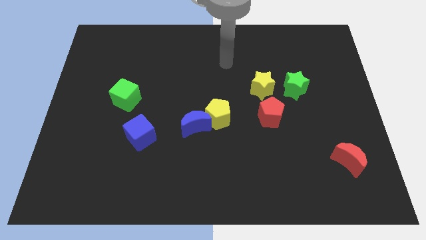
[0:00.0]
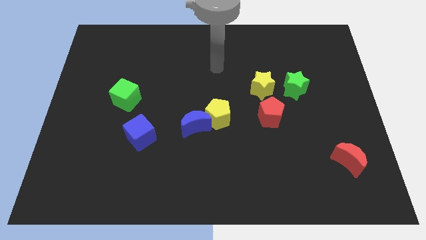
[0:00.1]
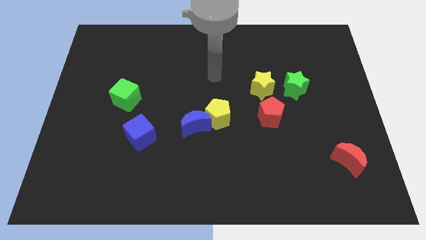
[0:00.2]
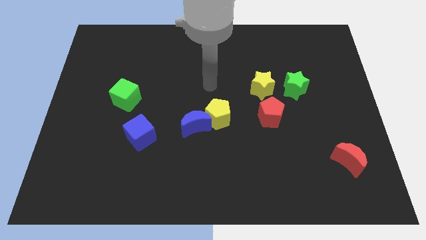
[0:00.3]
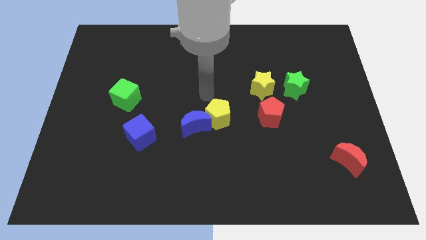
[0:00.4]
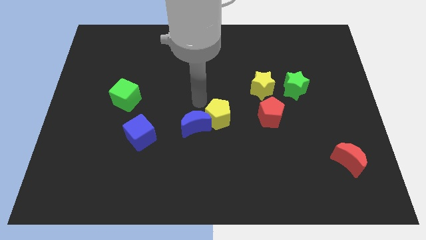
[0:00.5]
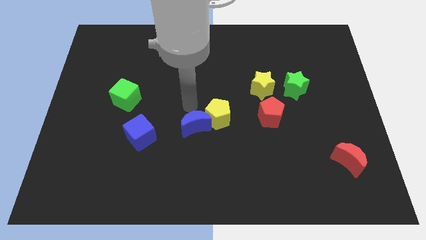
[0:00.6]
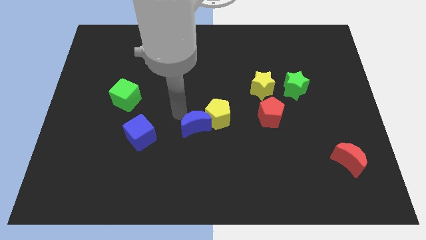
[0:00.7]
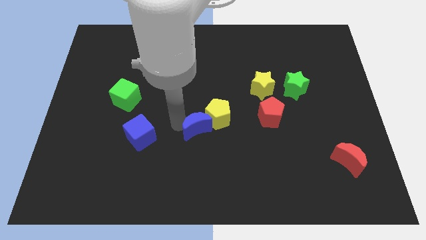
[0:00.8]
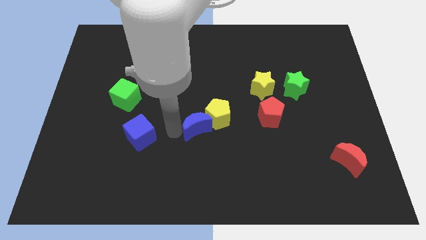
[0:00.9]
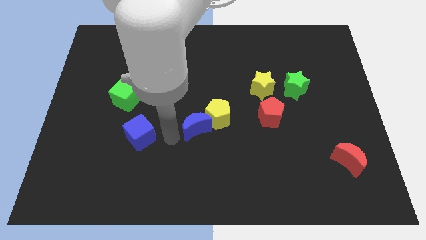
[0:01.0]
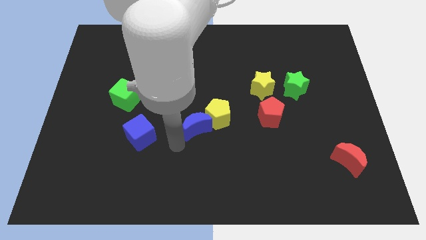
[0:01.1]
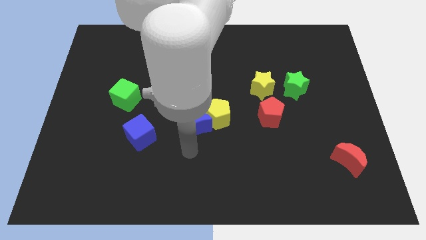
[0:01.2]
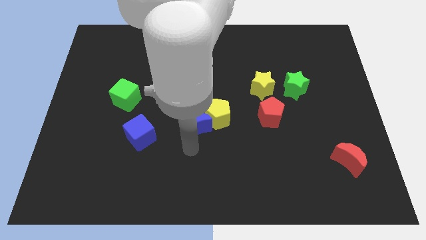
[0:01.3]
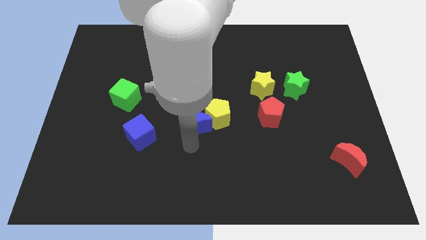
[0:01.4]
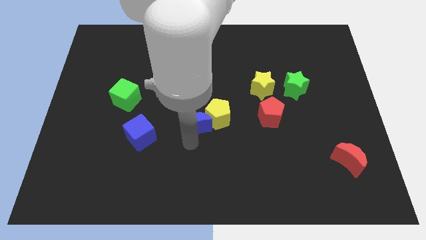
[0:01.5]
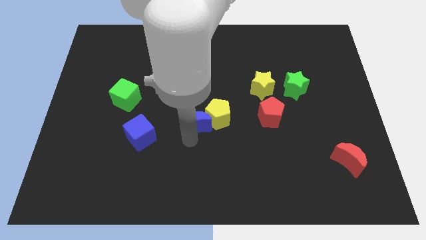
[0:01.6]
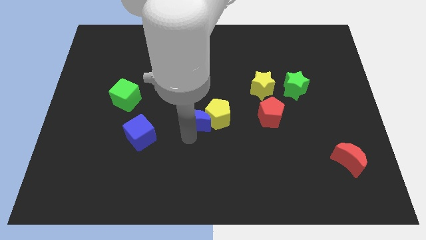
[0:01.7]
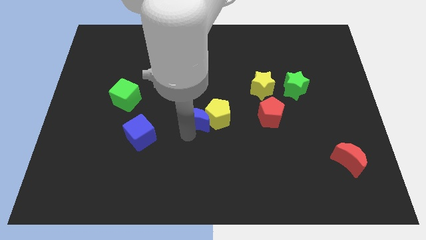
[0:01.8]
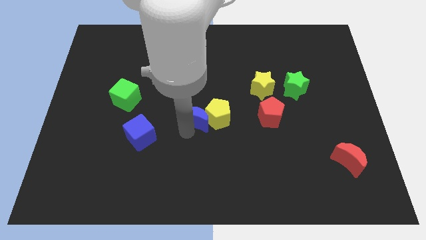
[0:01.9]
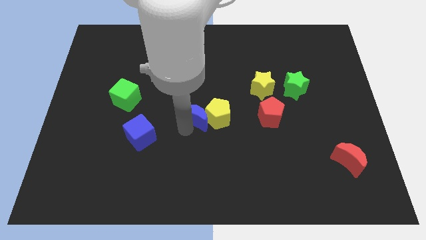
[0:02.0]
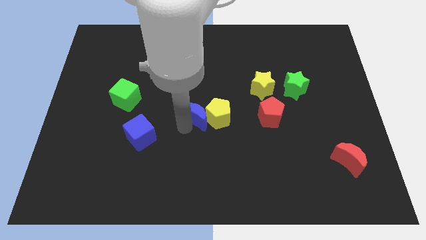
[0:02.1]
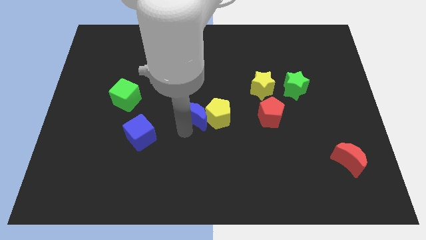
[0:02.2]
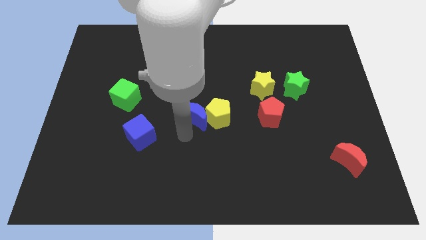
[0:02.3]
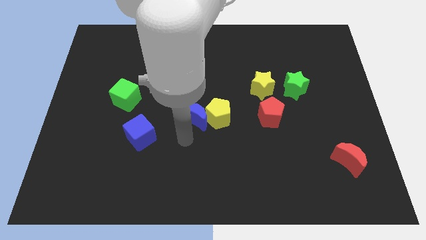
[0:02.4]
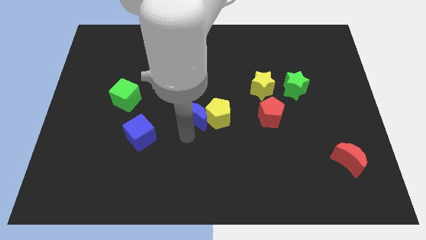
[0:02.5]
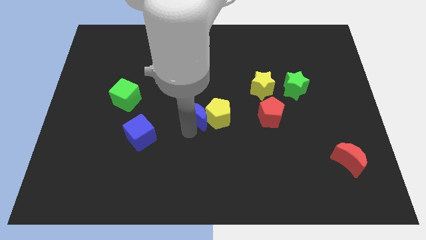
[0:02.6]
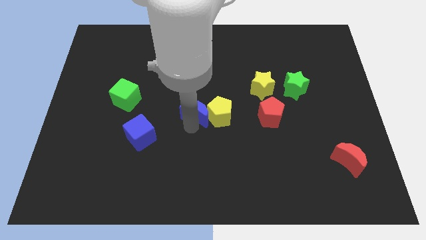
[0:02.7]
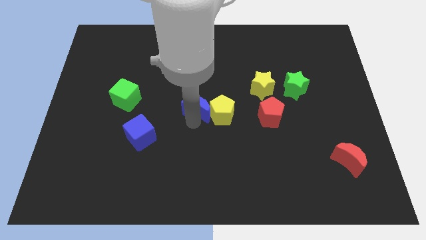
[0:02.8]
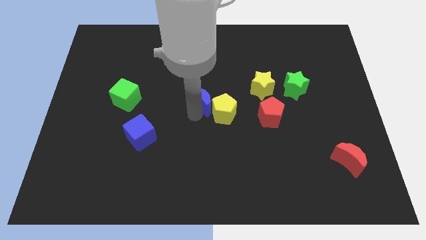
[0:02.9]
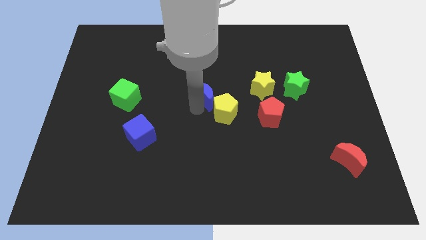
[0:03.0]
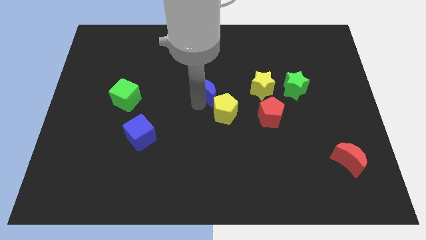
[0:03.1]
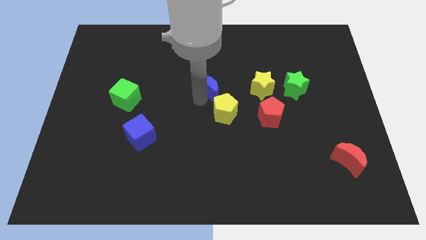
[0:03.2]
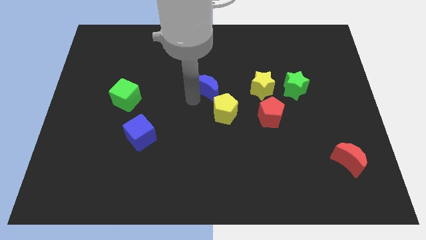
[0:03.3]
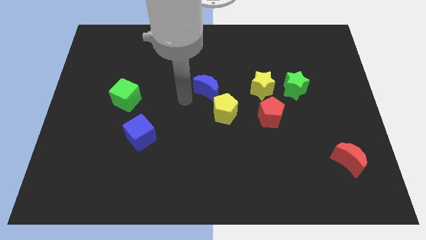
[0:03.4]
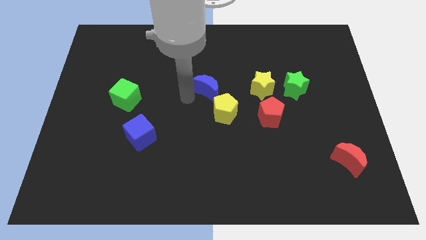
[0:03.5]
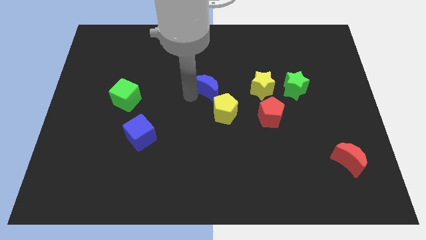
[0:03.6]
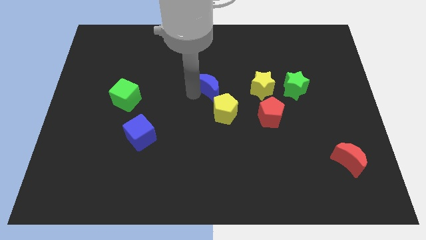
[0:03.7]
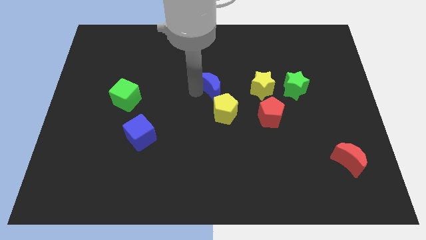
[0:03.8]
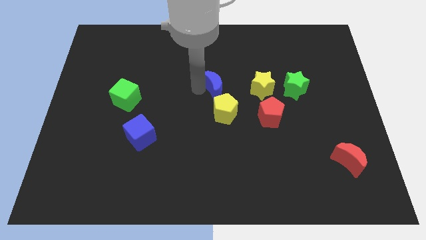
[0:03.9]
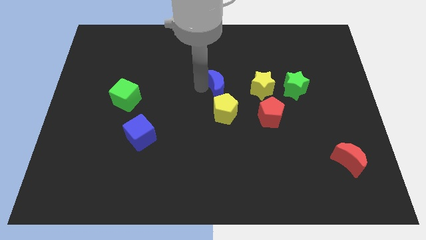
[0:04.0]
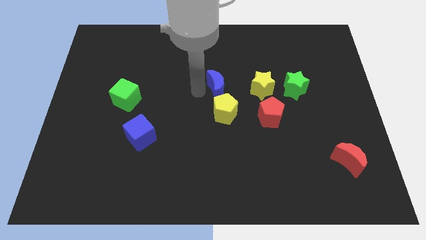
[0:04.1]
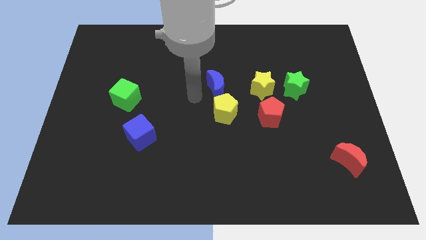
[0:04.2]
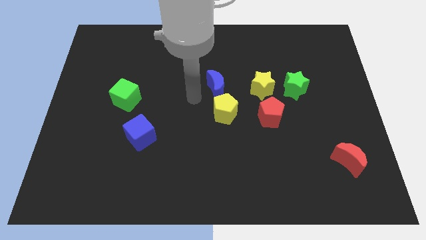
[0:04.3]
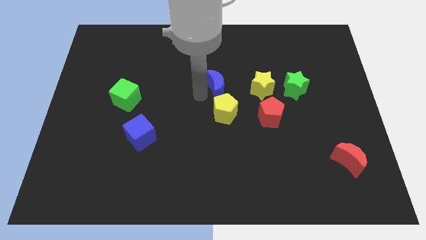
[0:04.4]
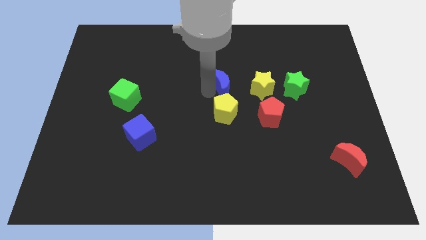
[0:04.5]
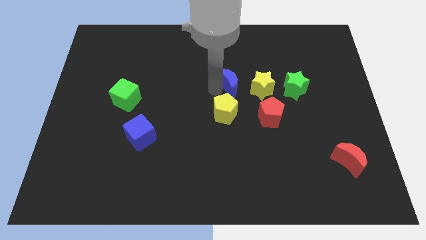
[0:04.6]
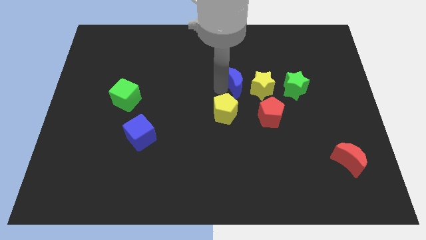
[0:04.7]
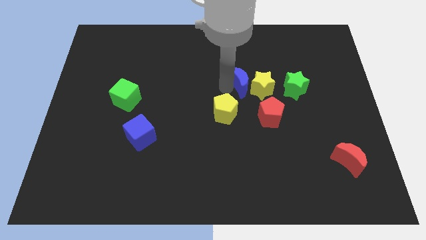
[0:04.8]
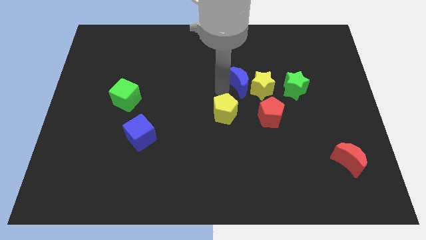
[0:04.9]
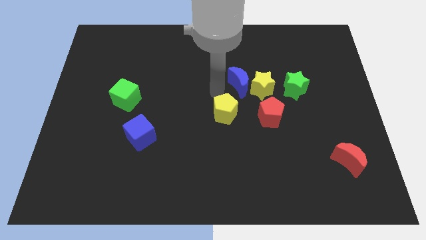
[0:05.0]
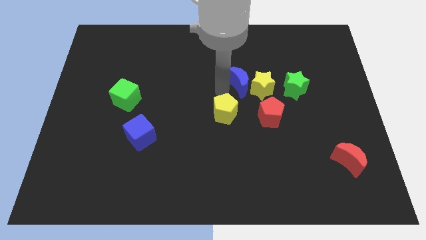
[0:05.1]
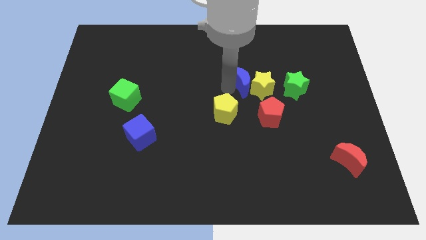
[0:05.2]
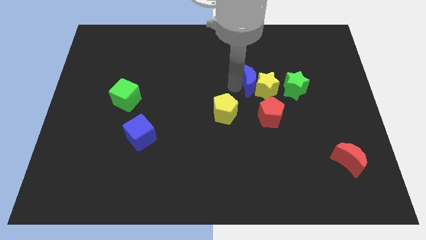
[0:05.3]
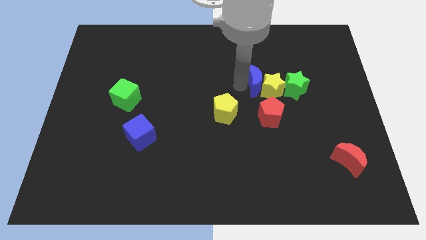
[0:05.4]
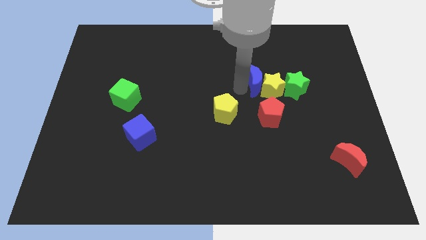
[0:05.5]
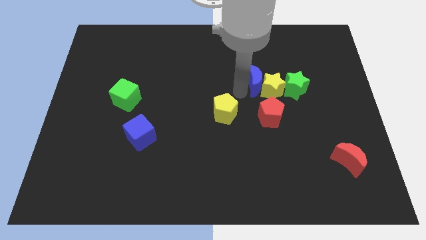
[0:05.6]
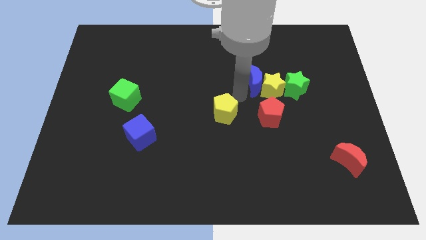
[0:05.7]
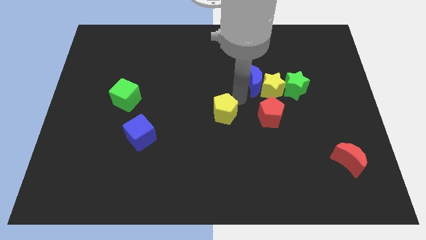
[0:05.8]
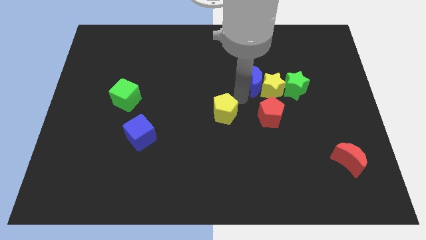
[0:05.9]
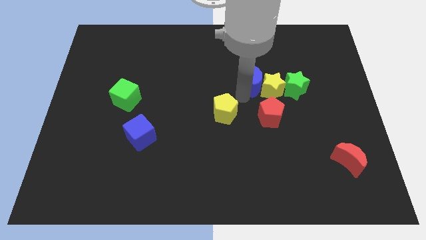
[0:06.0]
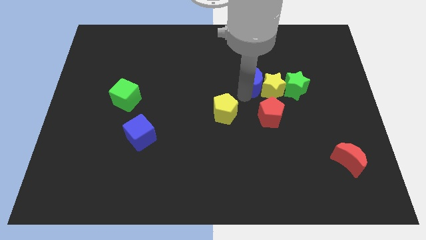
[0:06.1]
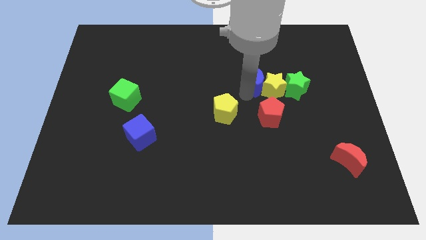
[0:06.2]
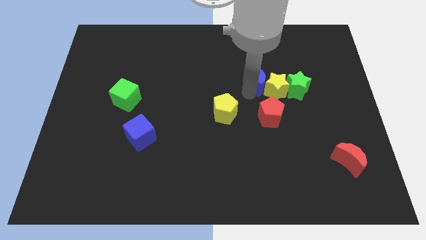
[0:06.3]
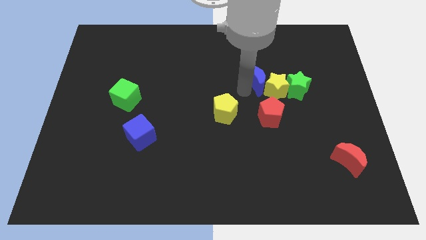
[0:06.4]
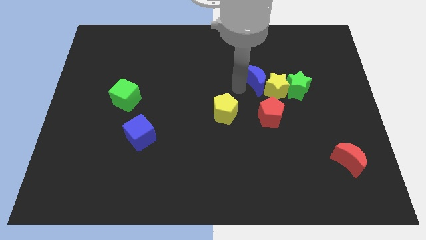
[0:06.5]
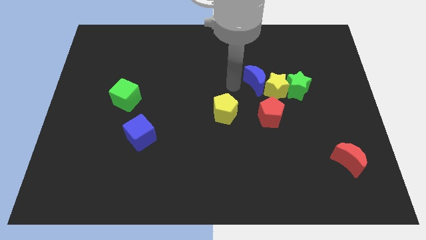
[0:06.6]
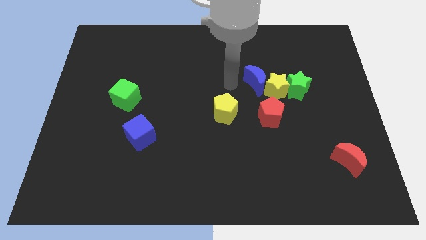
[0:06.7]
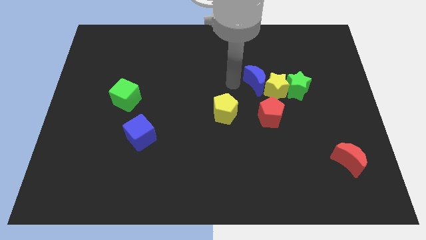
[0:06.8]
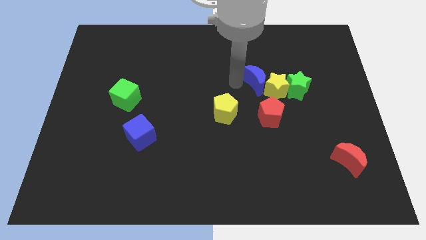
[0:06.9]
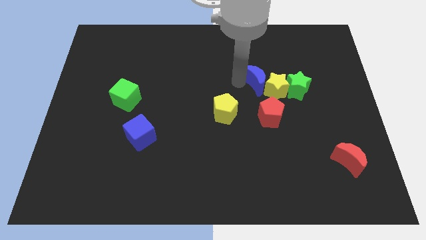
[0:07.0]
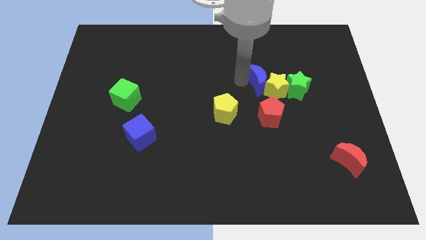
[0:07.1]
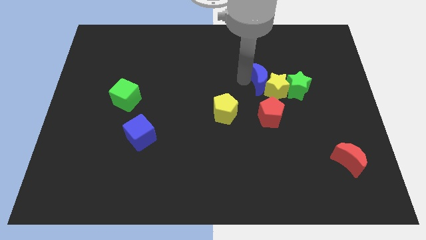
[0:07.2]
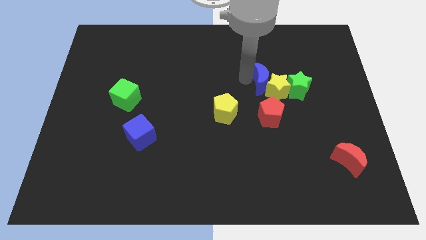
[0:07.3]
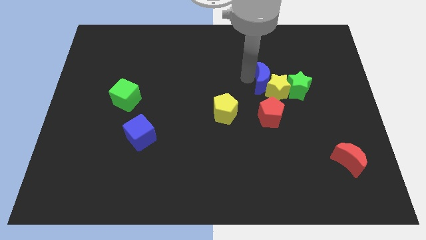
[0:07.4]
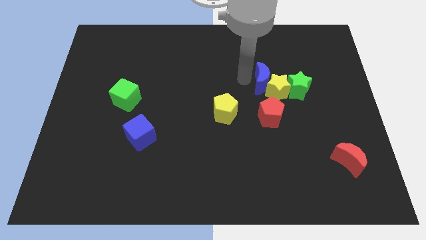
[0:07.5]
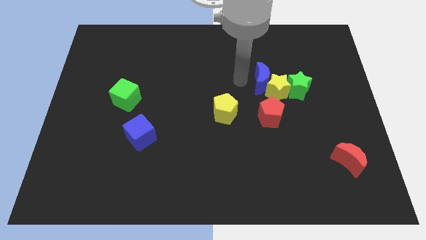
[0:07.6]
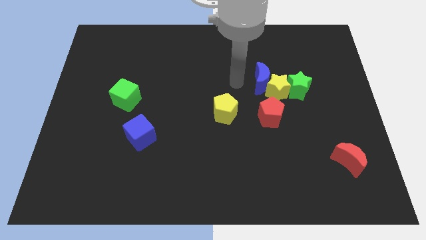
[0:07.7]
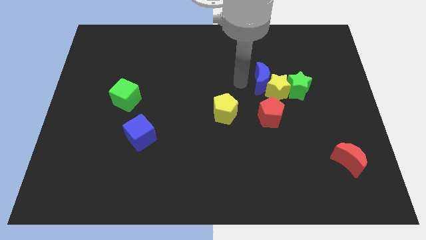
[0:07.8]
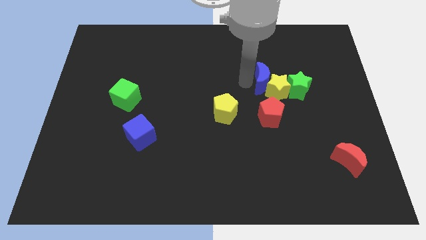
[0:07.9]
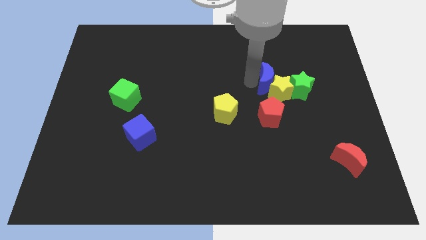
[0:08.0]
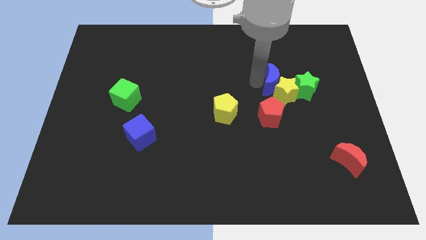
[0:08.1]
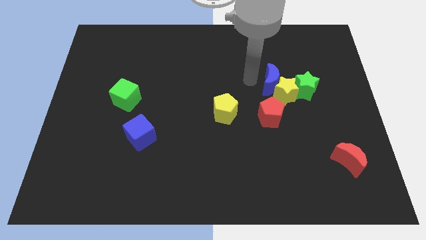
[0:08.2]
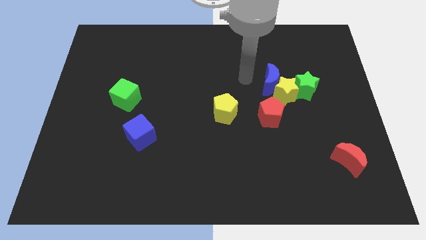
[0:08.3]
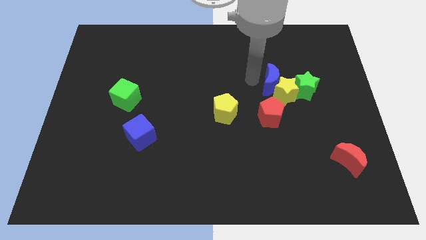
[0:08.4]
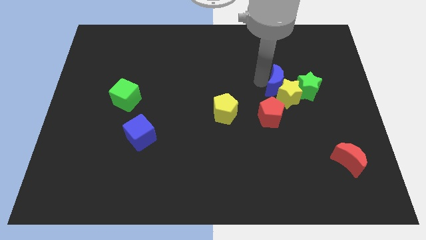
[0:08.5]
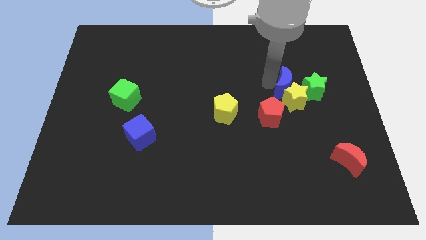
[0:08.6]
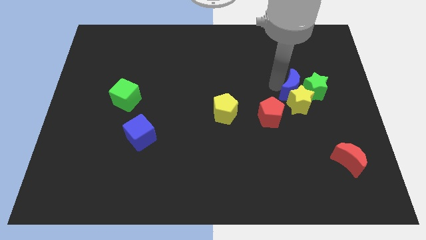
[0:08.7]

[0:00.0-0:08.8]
move the blue moon to the green star
